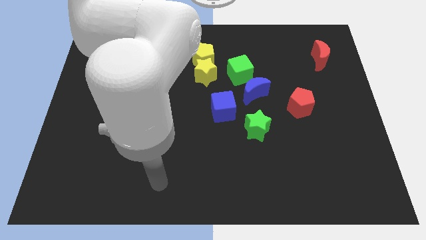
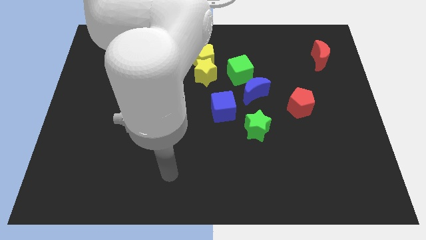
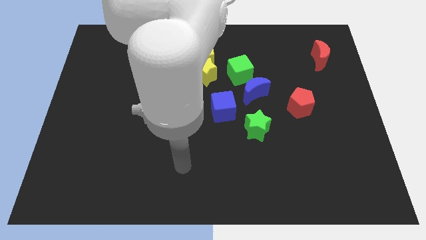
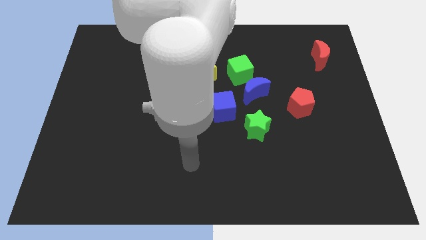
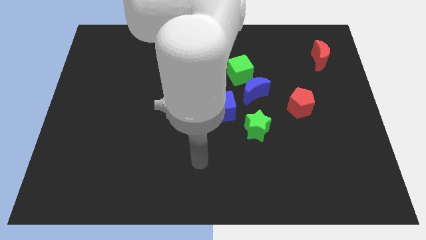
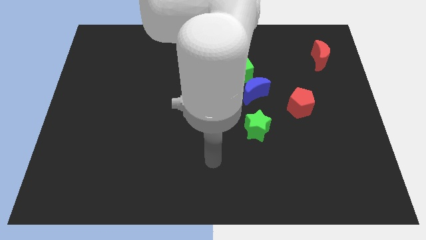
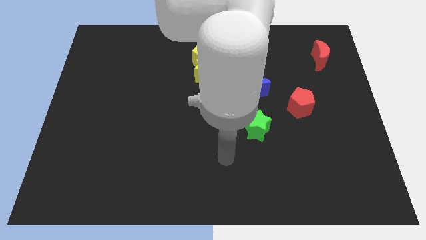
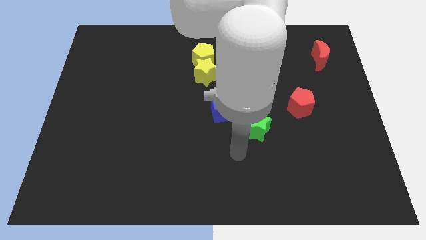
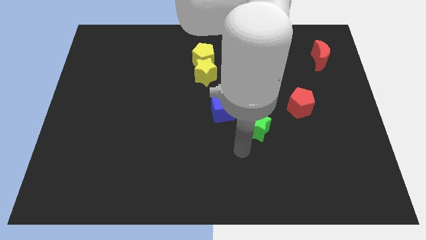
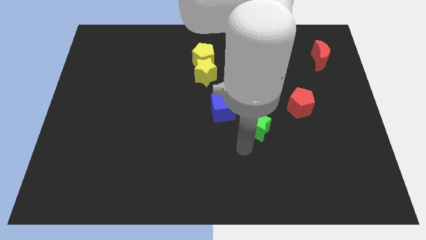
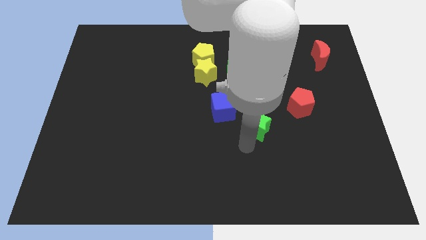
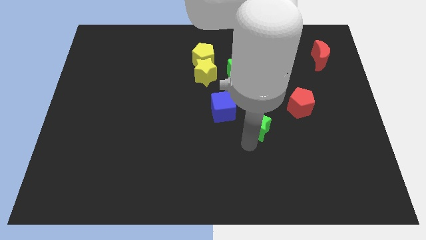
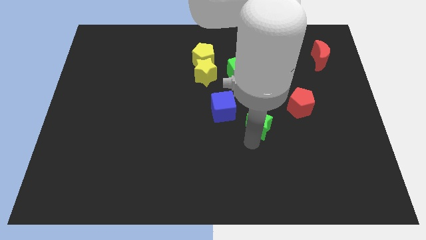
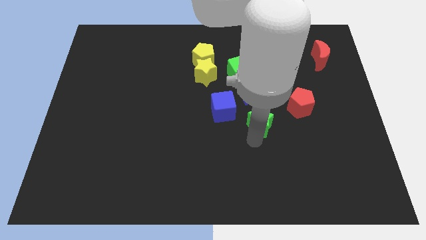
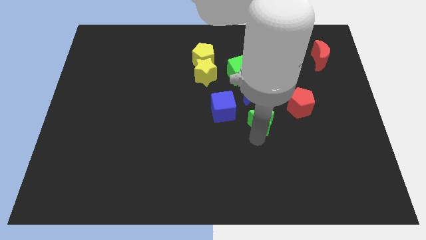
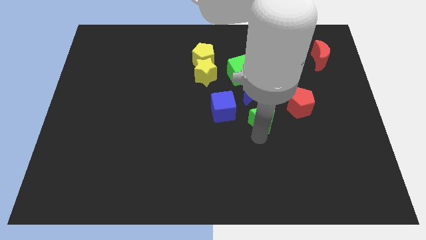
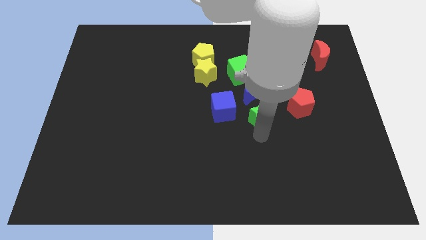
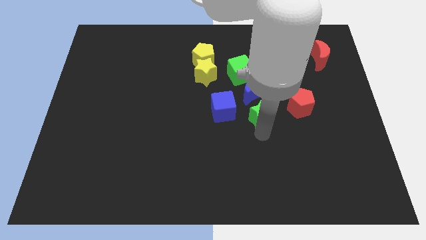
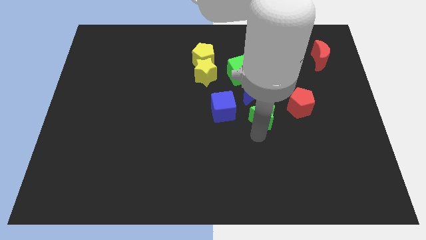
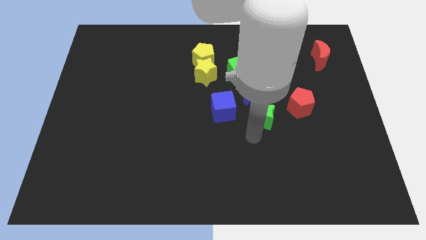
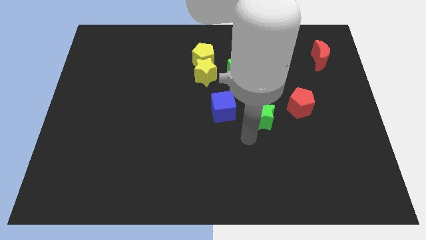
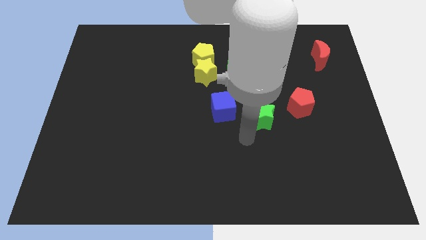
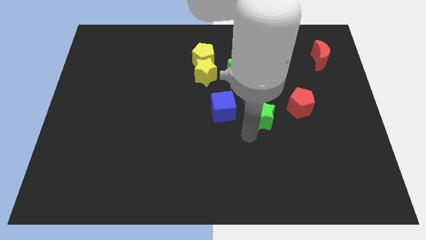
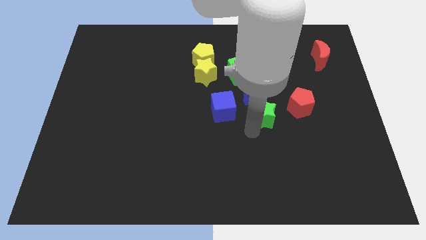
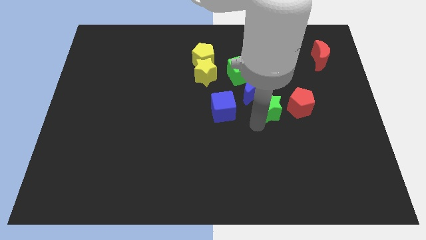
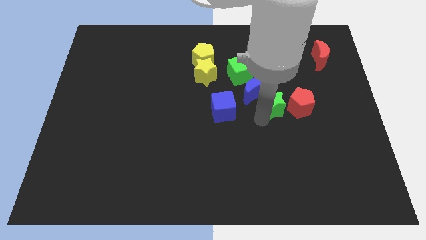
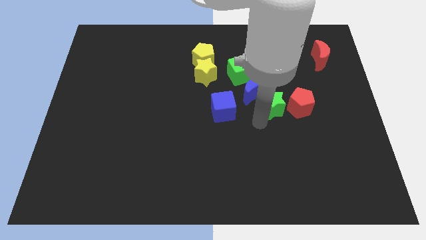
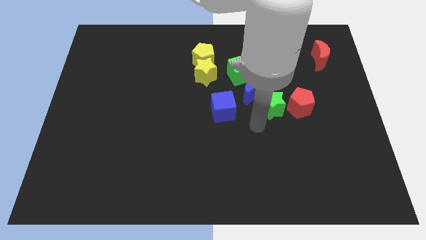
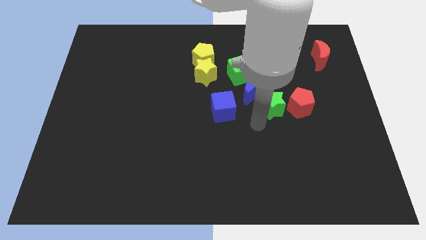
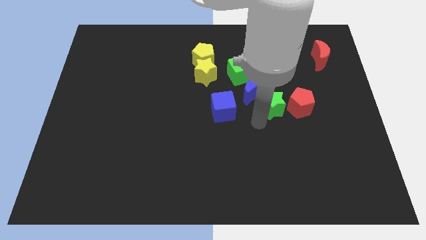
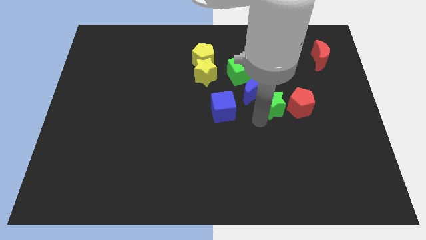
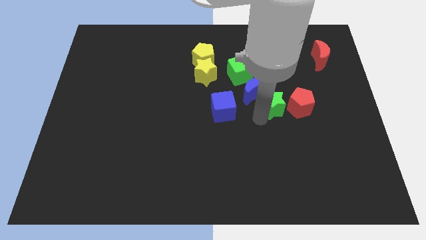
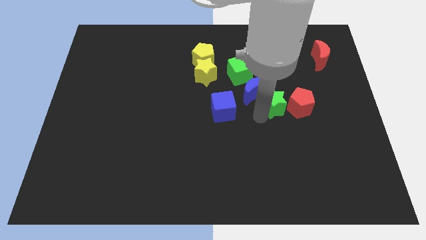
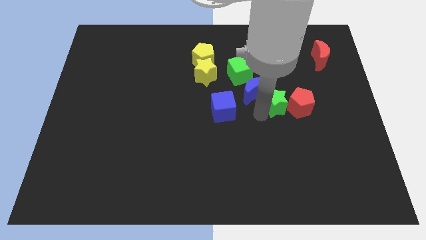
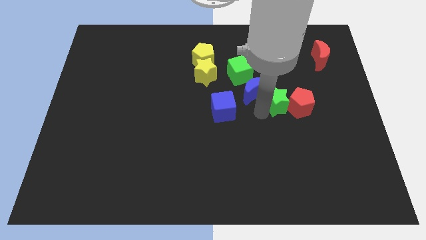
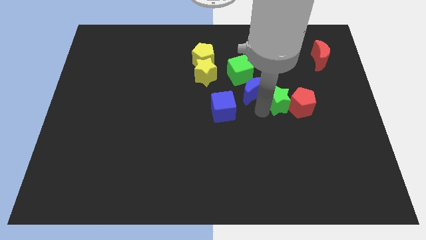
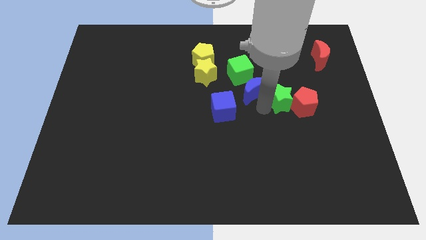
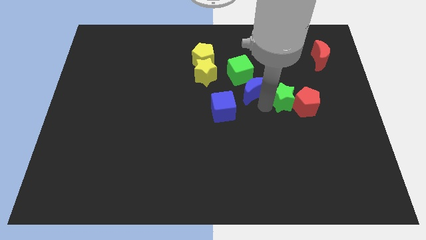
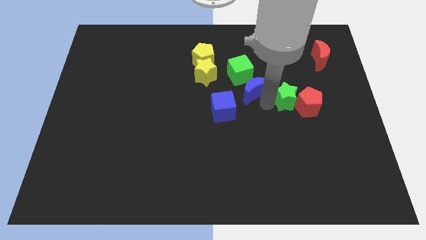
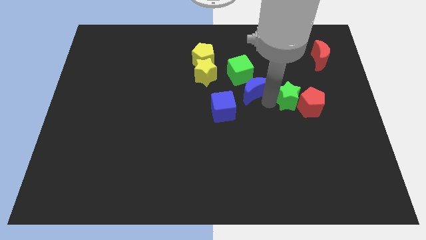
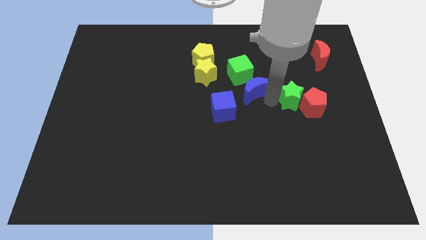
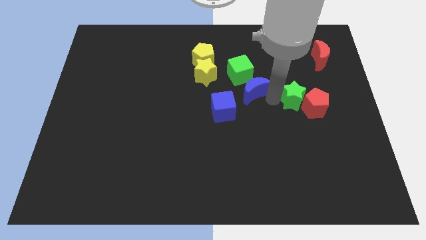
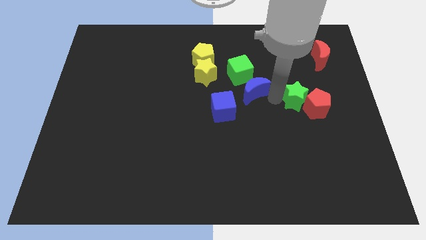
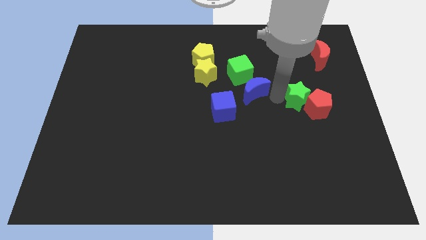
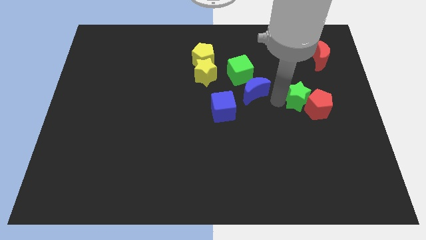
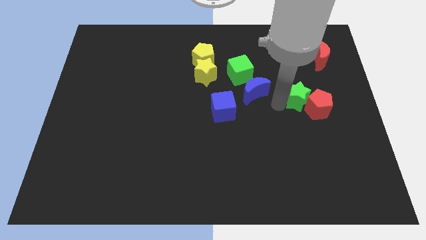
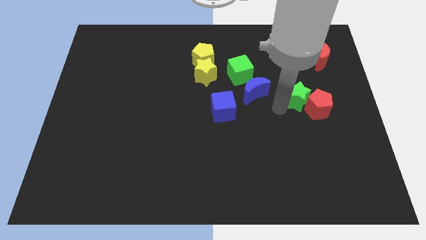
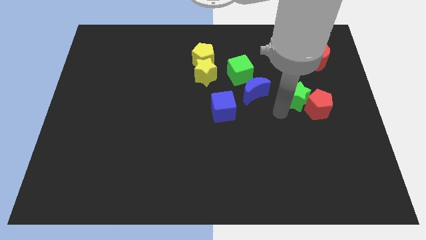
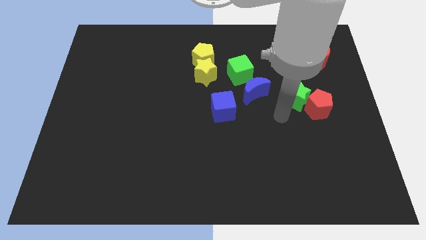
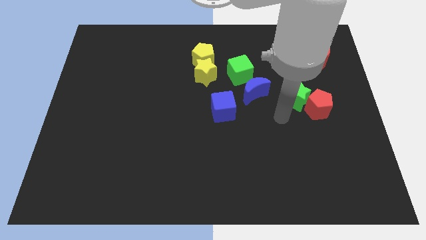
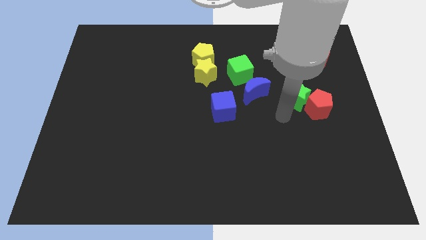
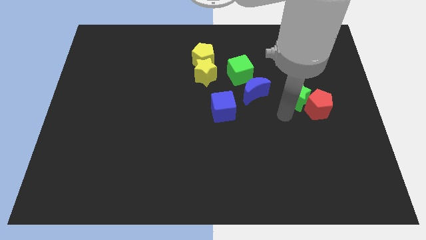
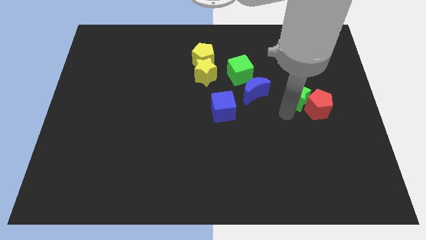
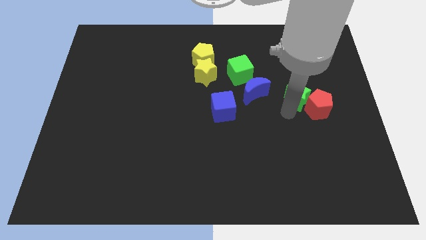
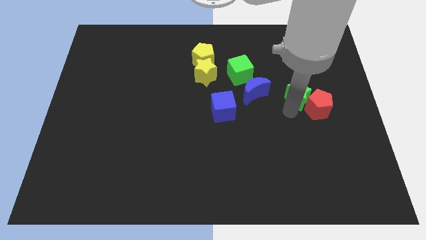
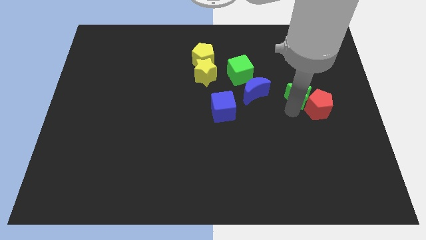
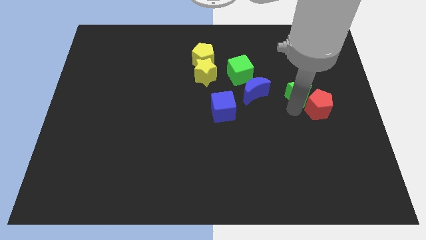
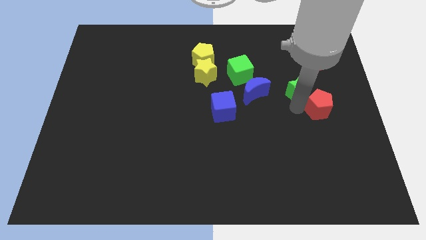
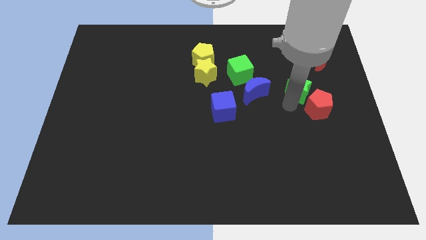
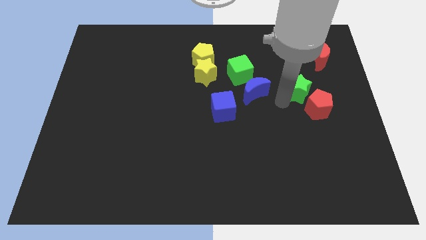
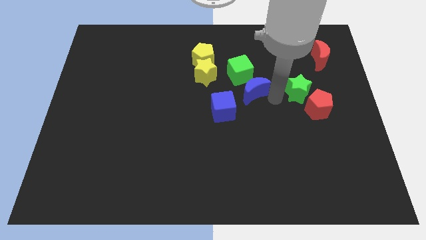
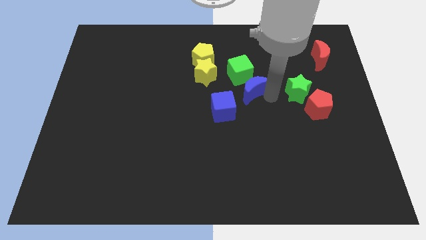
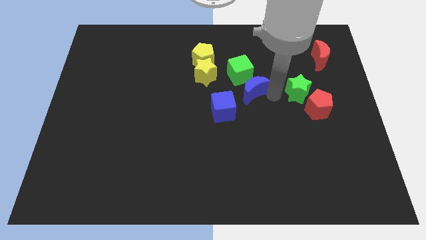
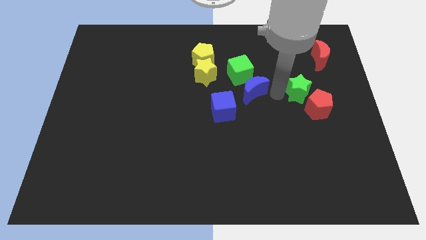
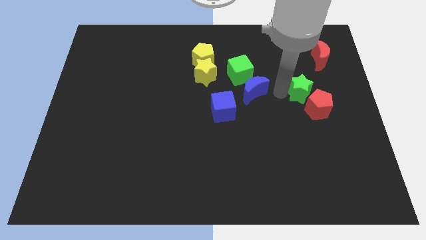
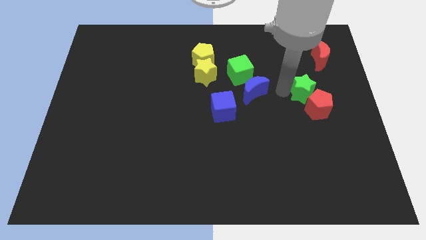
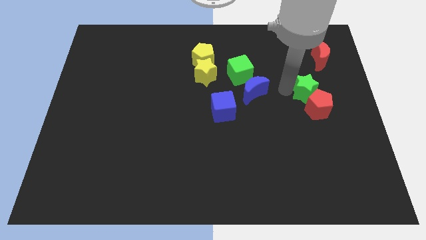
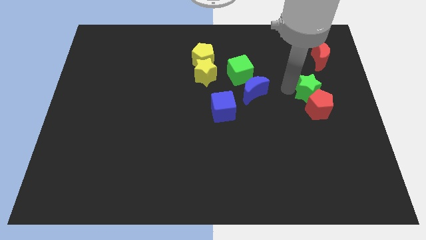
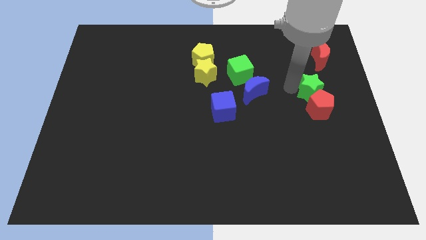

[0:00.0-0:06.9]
move the green star to the bottom of the red moon

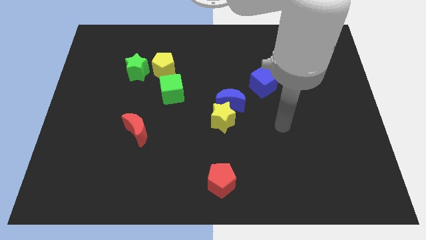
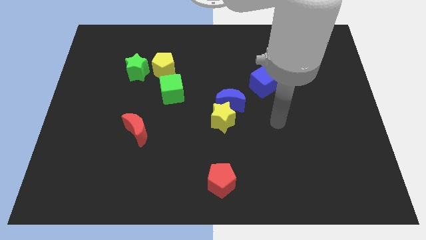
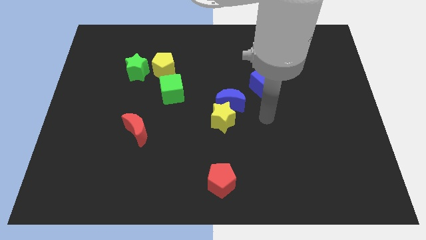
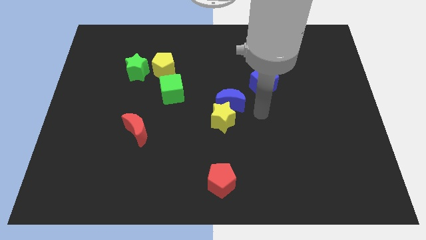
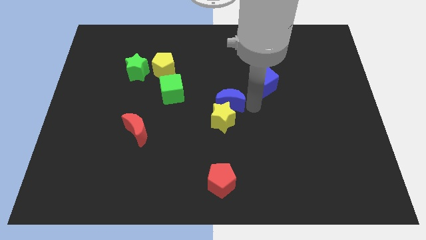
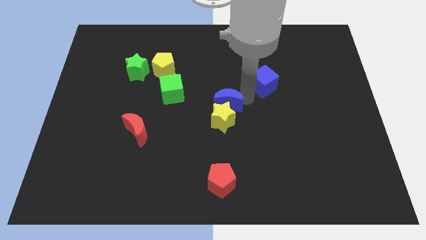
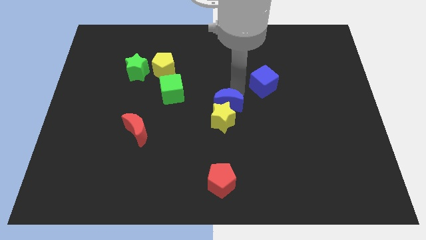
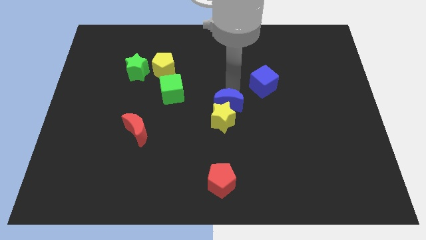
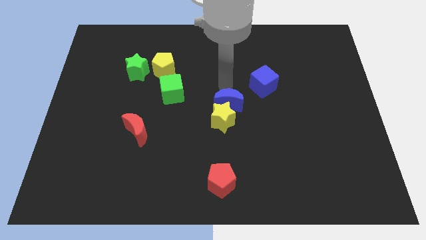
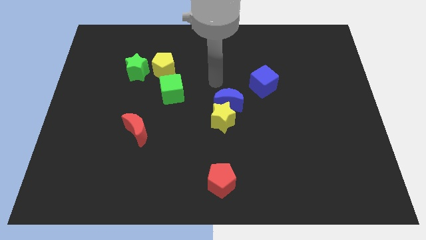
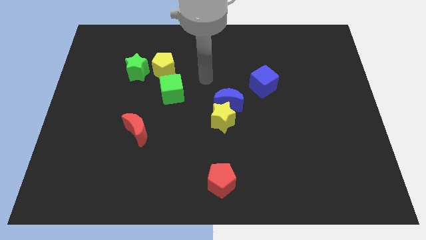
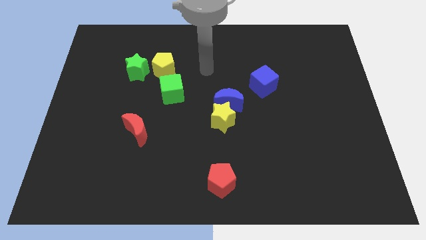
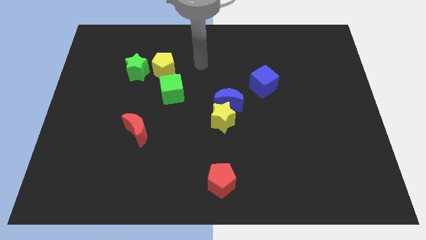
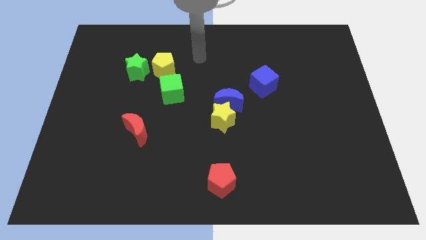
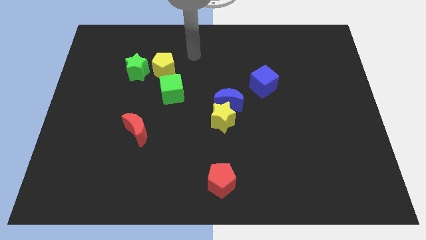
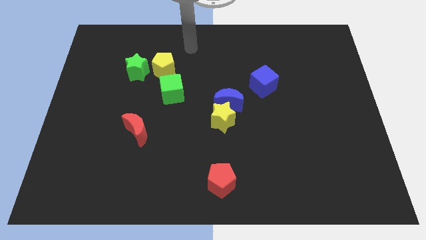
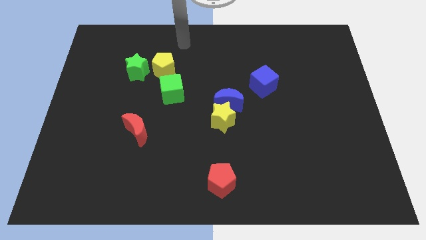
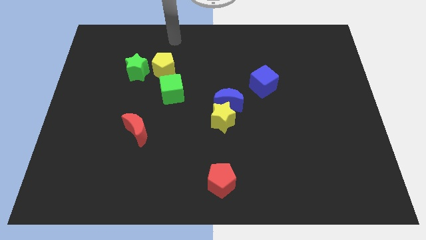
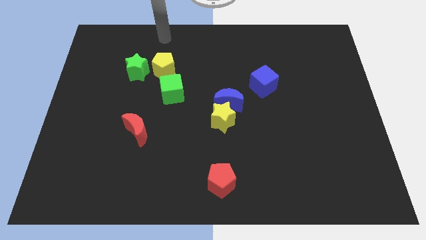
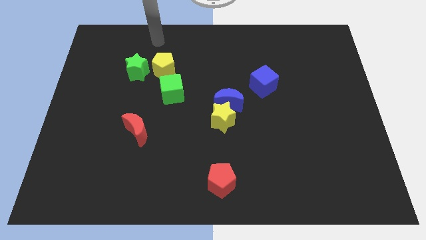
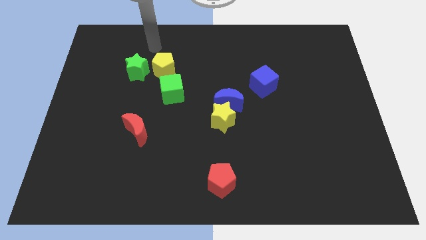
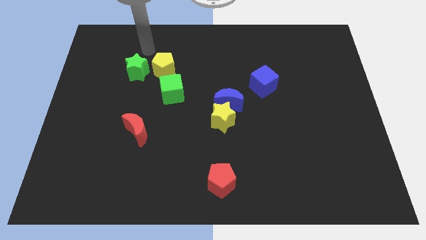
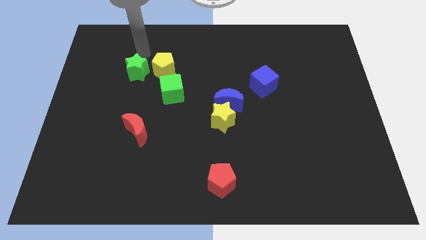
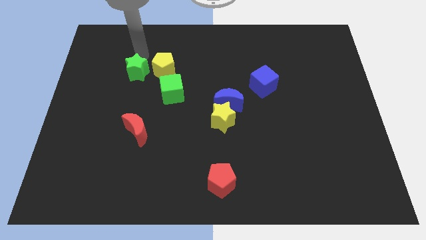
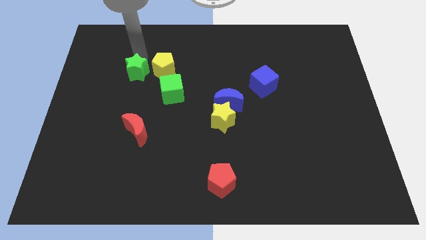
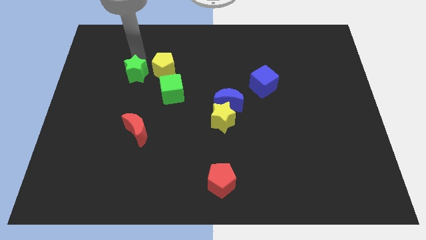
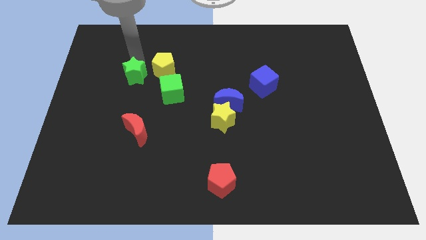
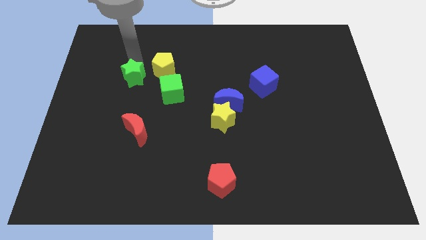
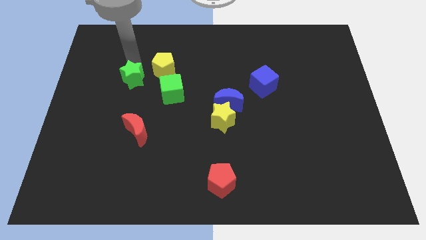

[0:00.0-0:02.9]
move the green star just left of the green cube
